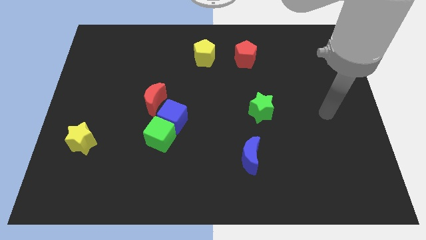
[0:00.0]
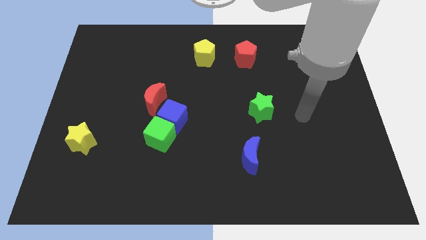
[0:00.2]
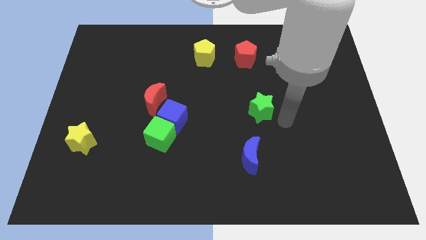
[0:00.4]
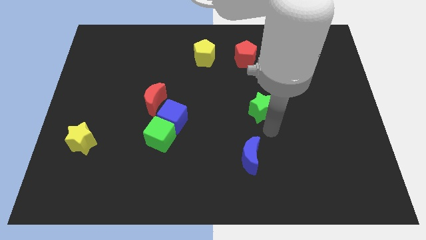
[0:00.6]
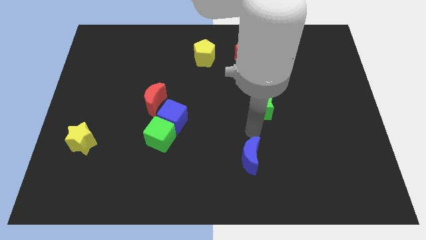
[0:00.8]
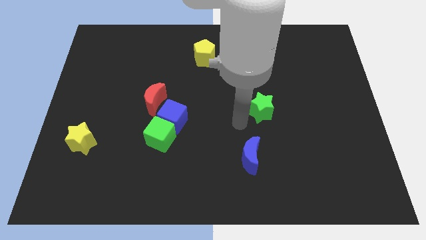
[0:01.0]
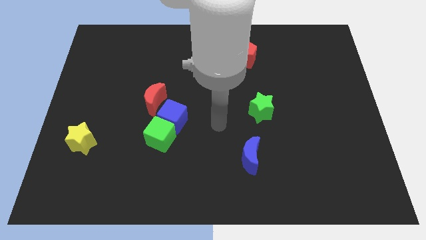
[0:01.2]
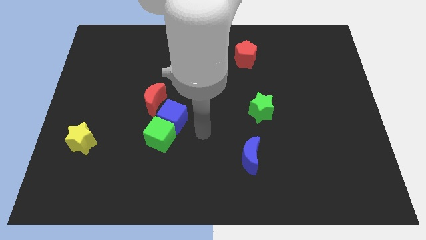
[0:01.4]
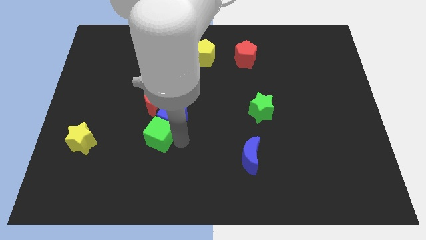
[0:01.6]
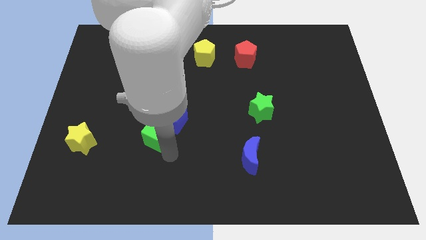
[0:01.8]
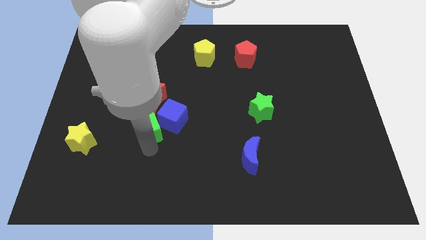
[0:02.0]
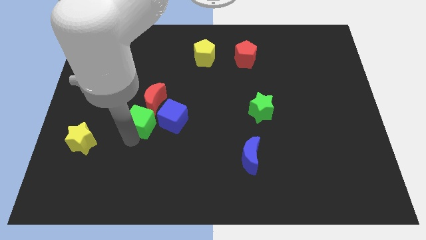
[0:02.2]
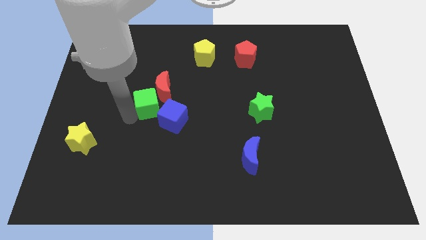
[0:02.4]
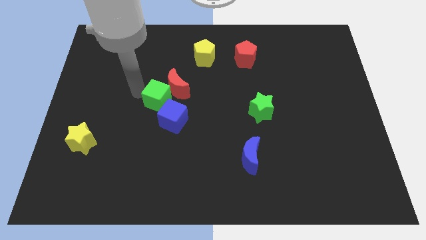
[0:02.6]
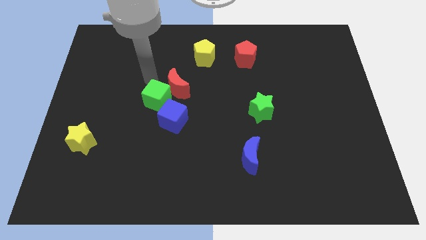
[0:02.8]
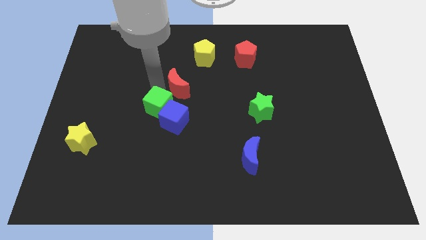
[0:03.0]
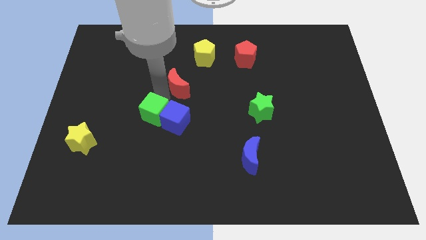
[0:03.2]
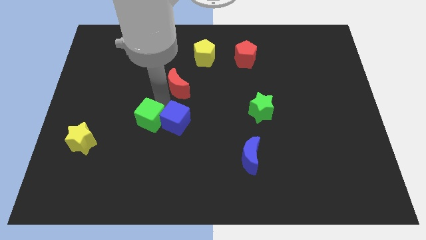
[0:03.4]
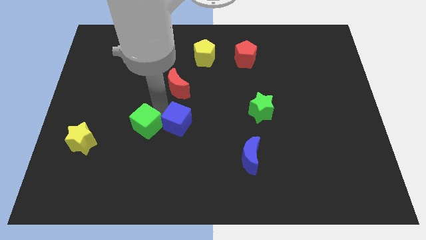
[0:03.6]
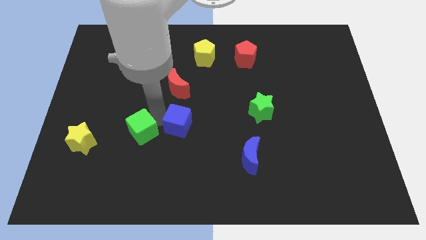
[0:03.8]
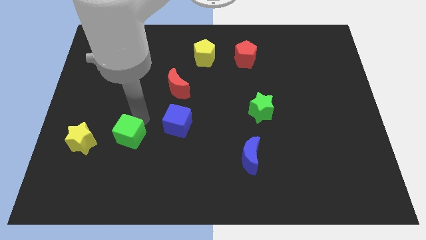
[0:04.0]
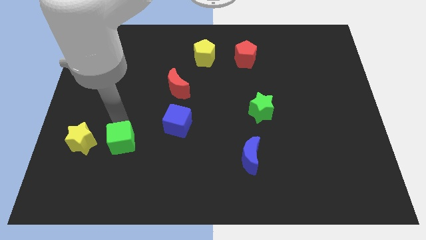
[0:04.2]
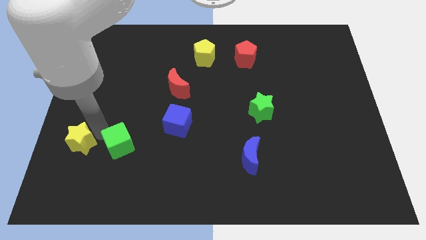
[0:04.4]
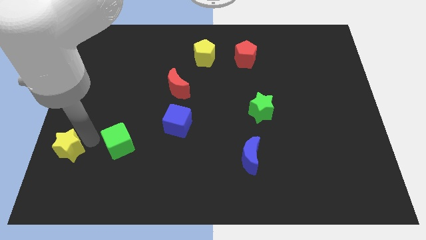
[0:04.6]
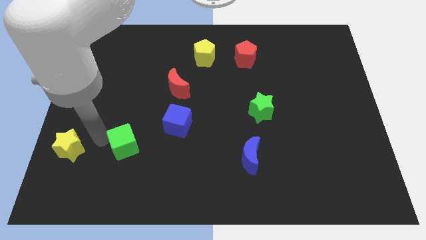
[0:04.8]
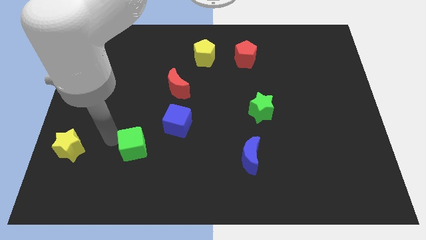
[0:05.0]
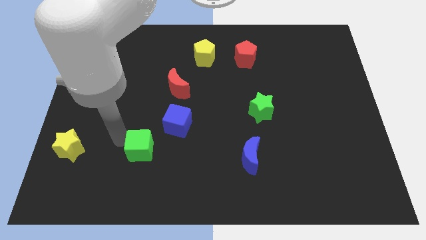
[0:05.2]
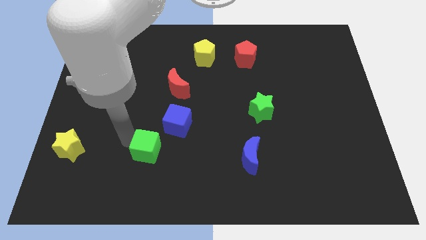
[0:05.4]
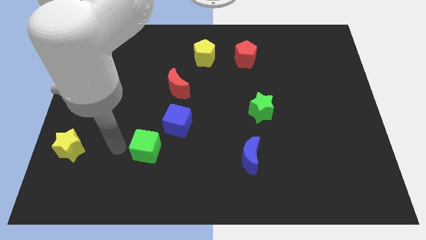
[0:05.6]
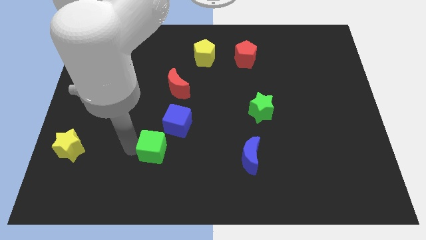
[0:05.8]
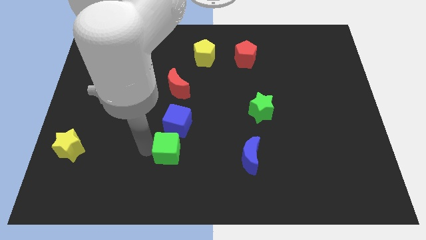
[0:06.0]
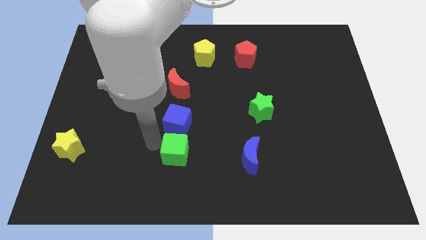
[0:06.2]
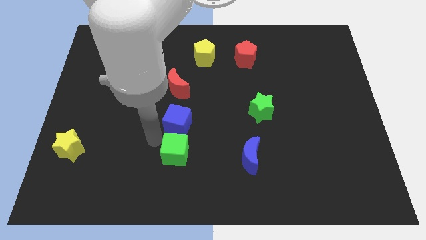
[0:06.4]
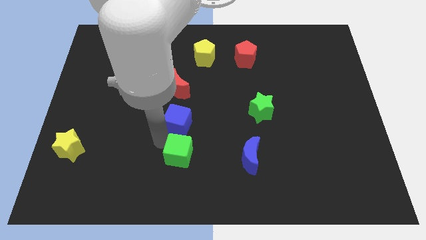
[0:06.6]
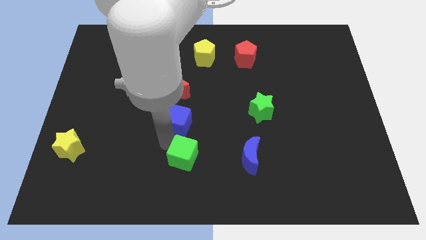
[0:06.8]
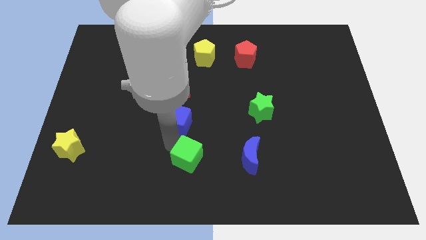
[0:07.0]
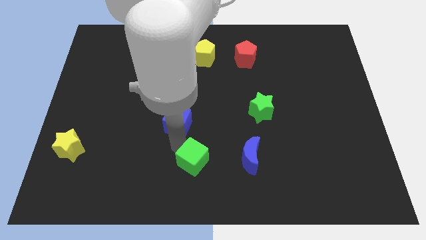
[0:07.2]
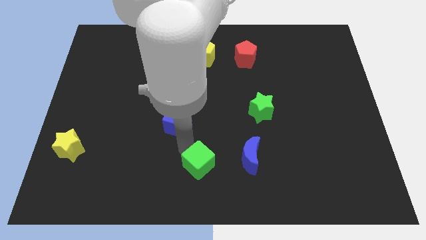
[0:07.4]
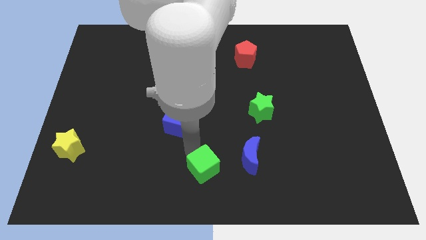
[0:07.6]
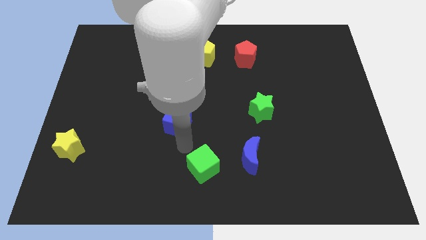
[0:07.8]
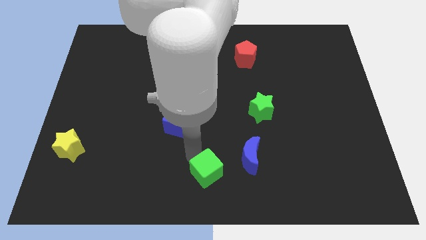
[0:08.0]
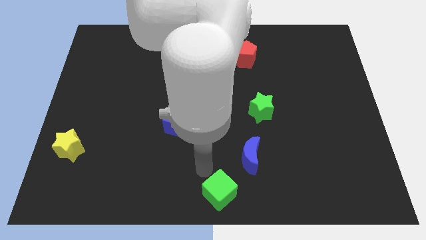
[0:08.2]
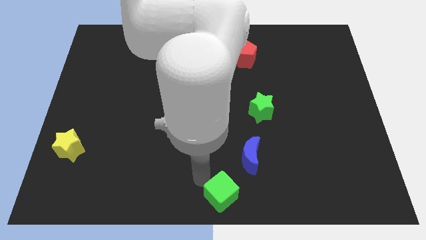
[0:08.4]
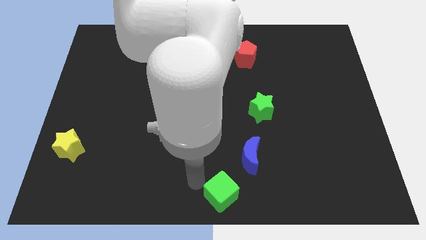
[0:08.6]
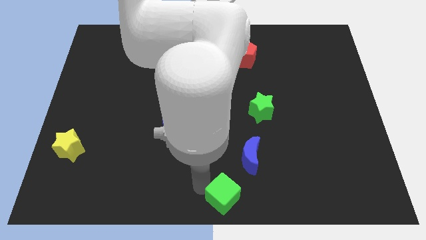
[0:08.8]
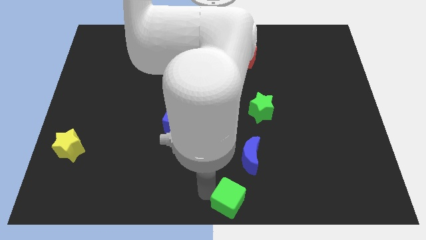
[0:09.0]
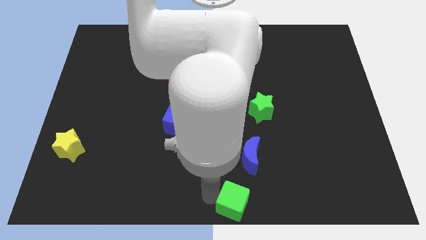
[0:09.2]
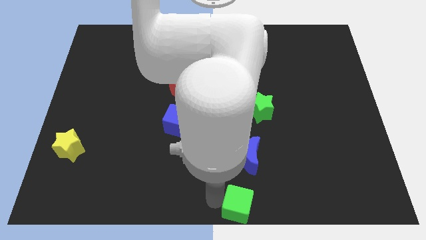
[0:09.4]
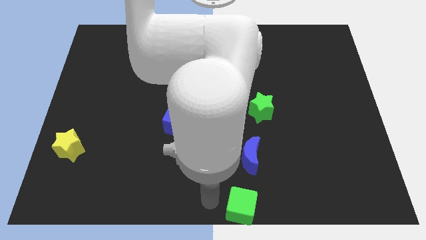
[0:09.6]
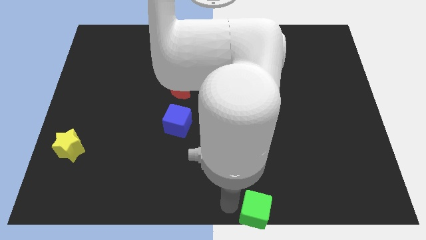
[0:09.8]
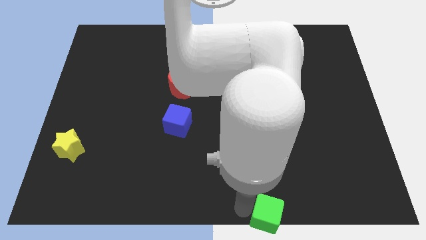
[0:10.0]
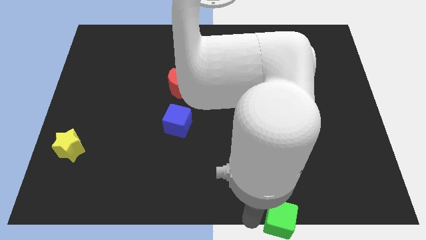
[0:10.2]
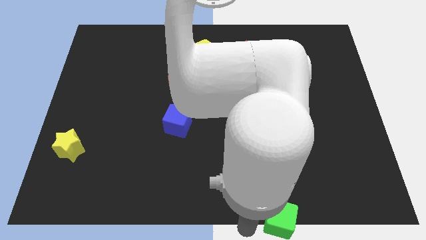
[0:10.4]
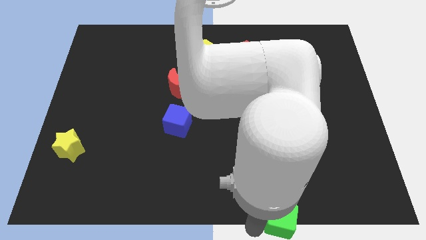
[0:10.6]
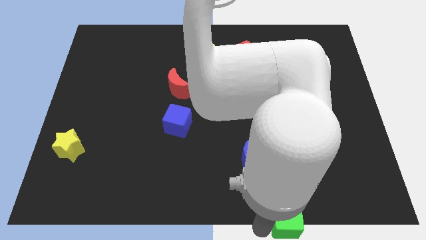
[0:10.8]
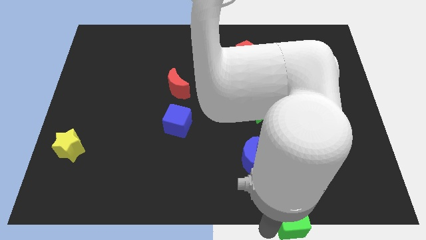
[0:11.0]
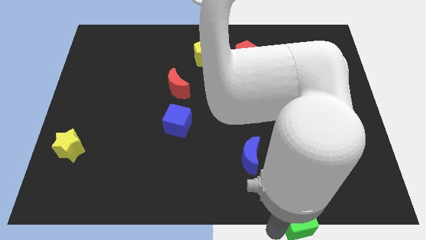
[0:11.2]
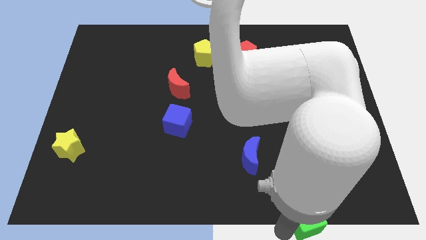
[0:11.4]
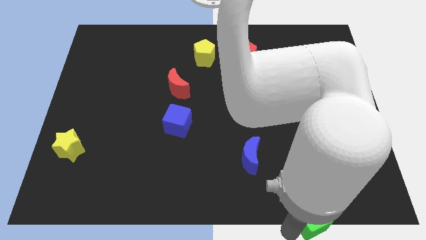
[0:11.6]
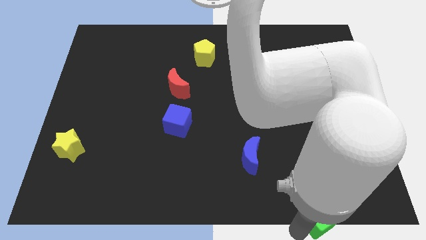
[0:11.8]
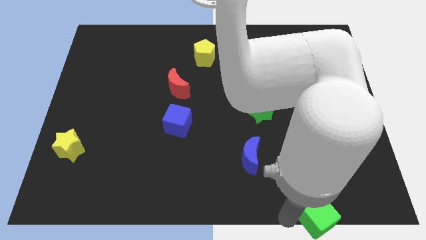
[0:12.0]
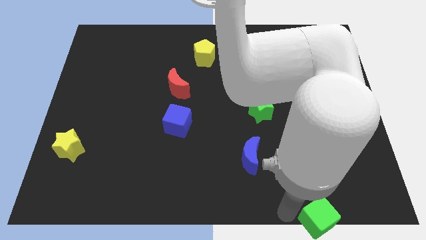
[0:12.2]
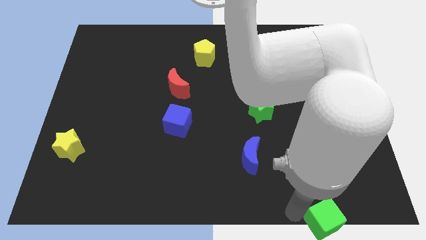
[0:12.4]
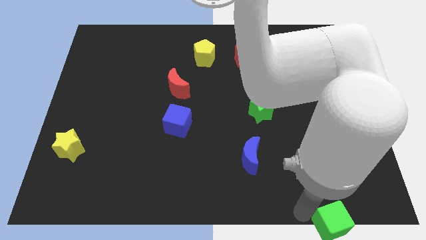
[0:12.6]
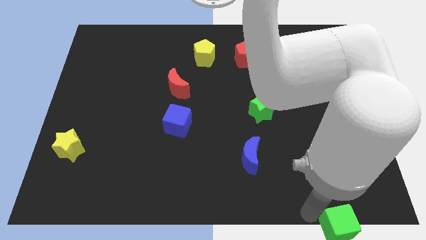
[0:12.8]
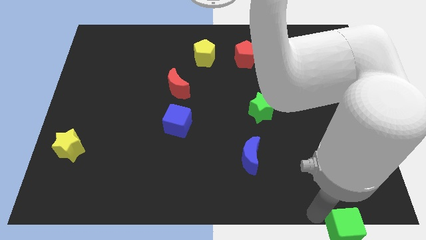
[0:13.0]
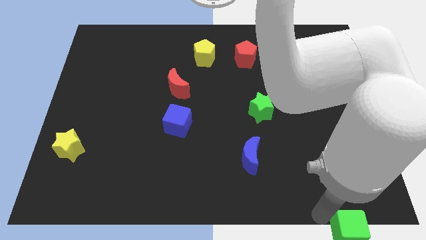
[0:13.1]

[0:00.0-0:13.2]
slide the green cube to the bottom right corner
